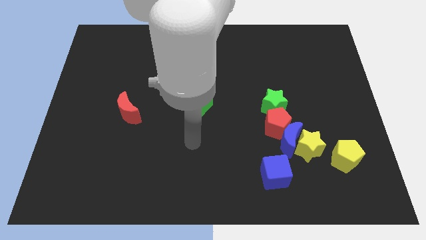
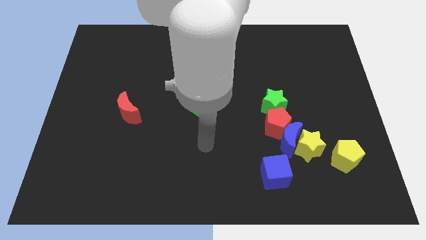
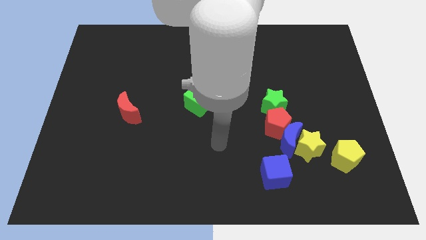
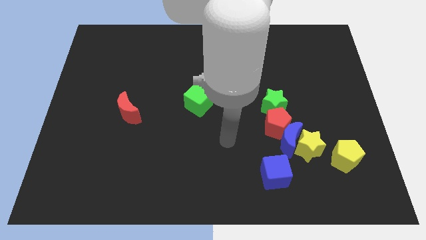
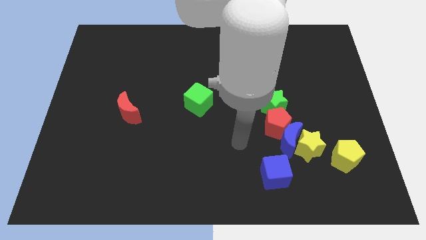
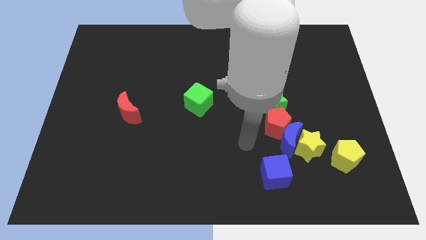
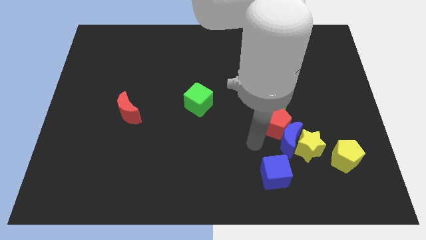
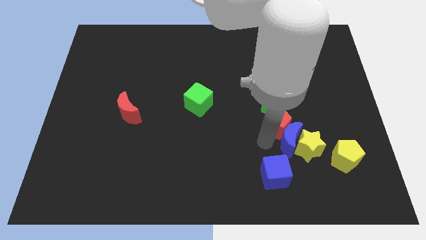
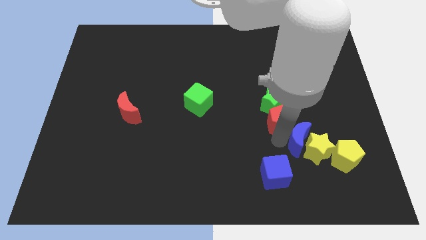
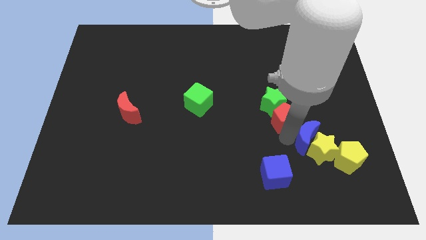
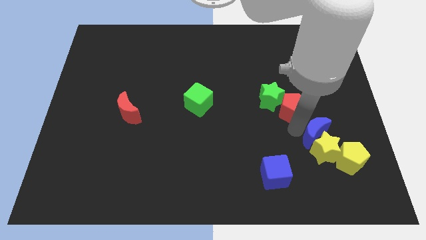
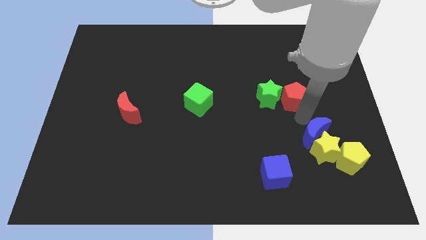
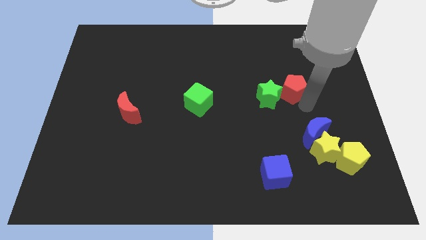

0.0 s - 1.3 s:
separate the red pentagon from the blue moon, green star, and yellow star

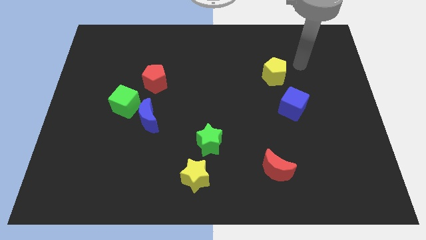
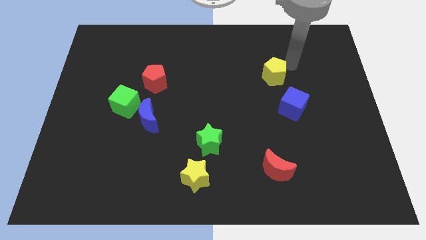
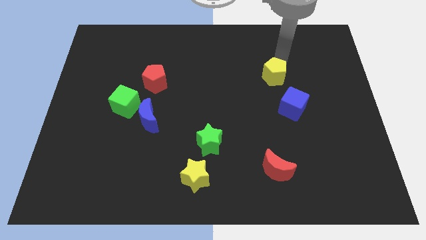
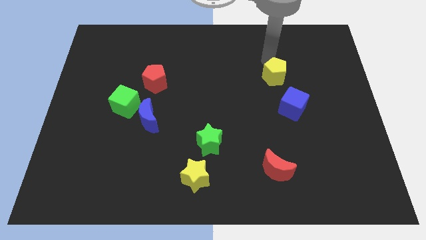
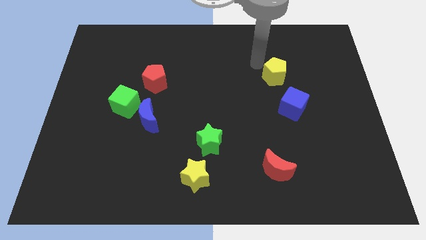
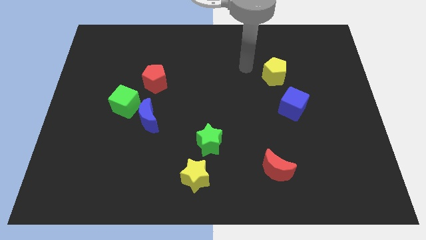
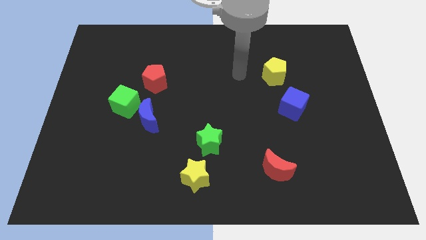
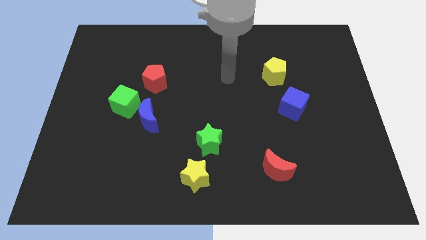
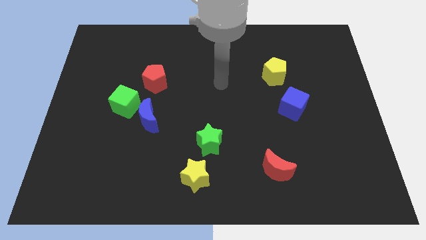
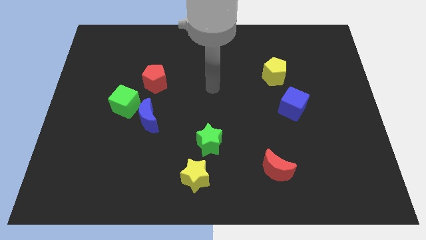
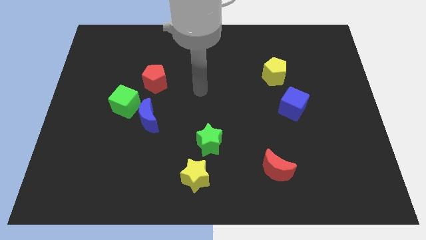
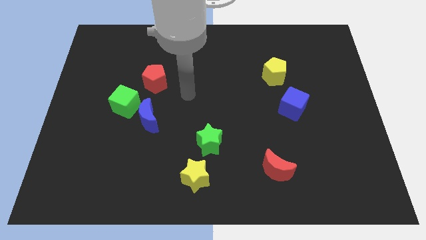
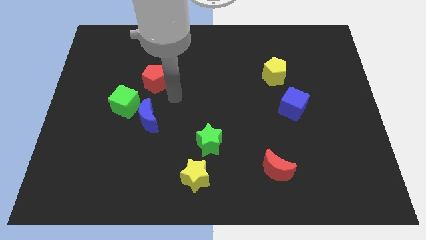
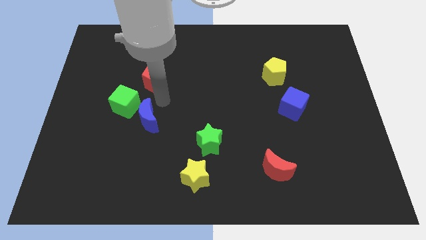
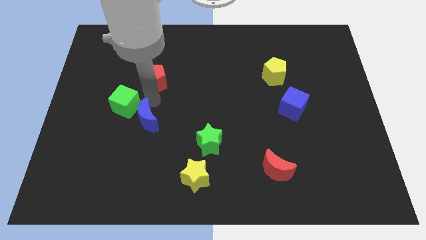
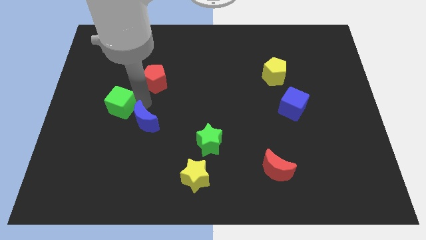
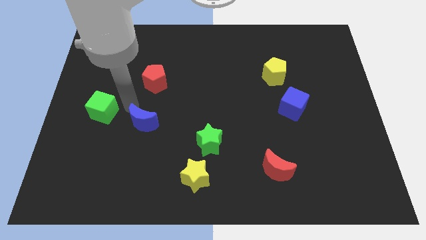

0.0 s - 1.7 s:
separate the blue moon from the green cube

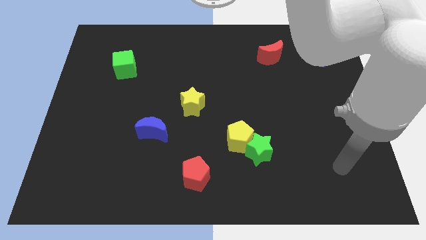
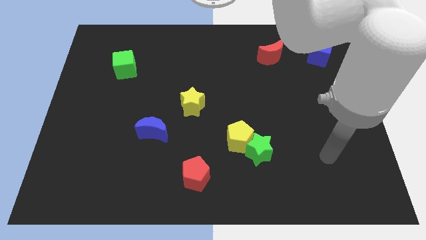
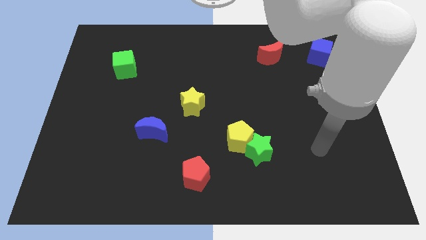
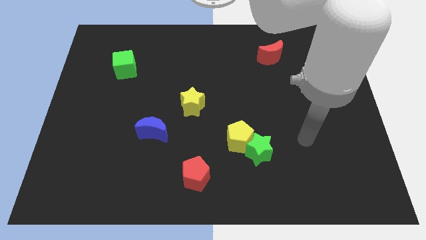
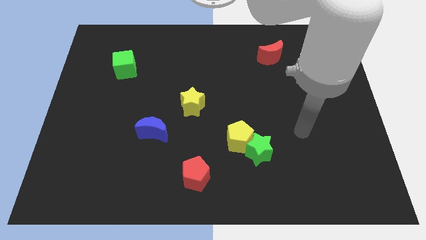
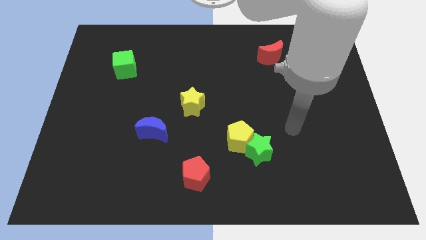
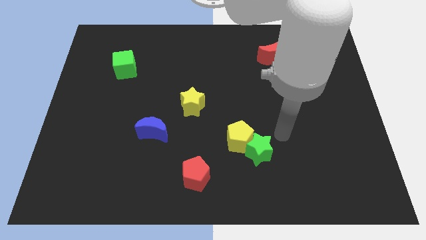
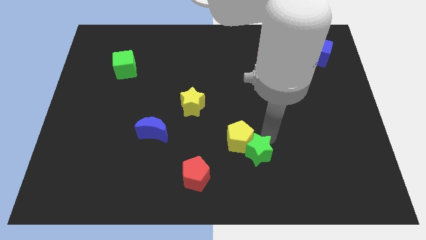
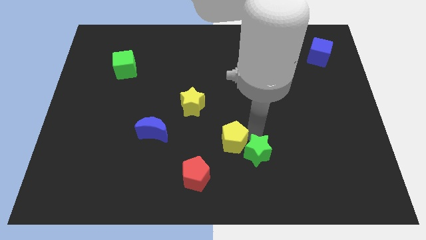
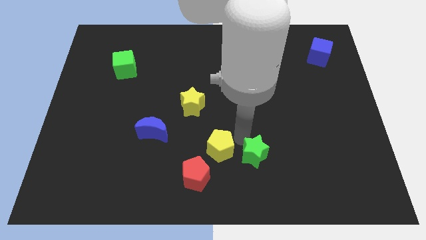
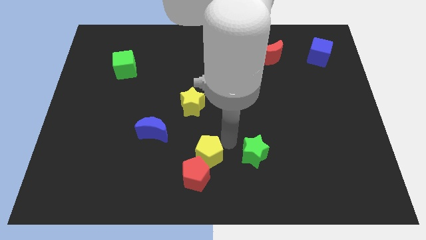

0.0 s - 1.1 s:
separate the green star from the yellow pentagon

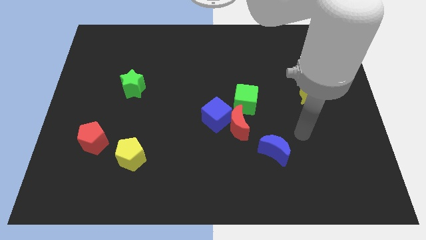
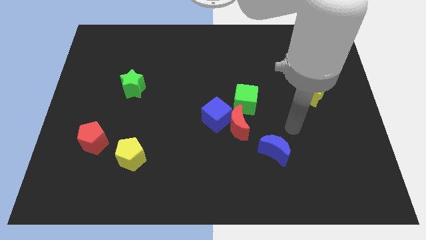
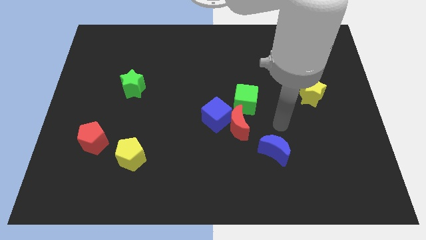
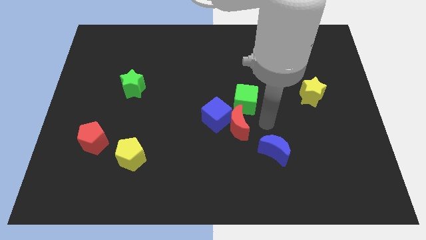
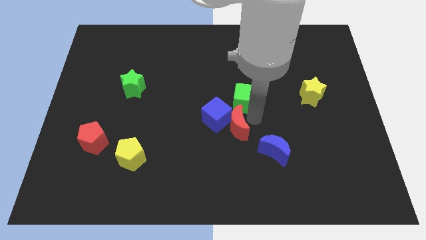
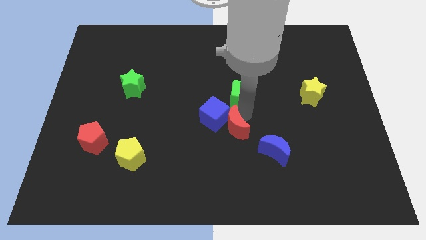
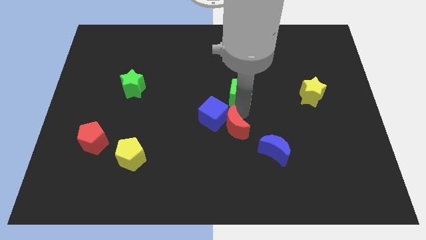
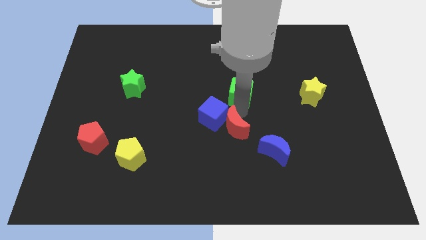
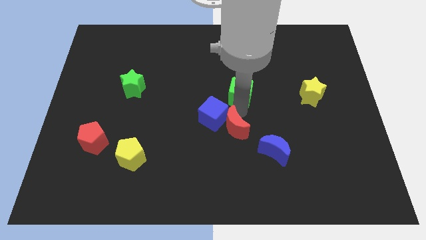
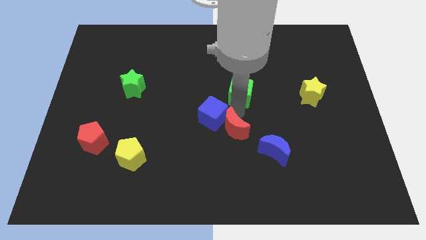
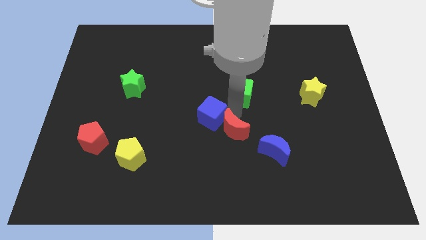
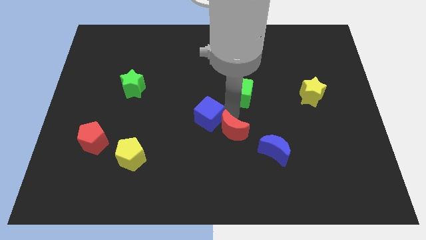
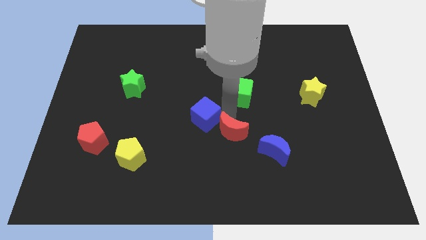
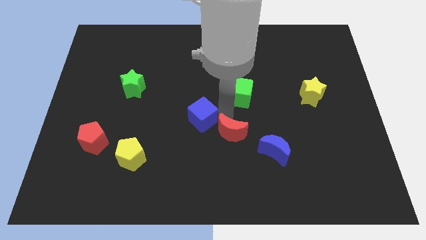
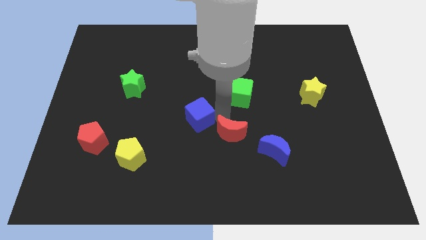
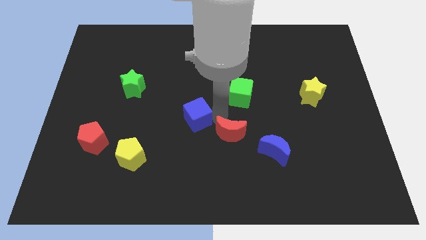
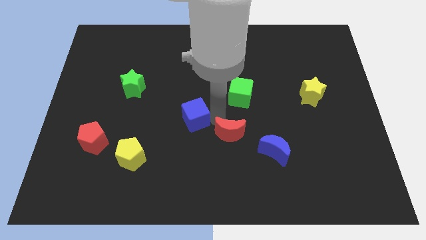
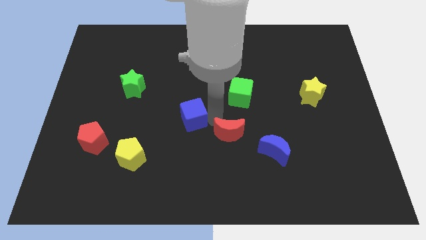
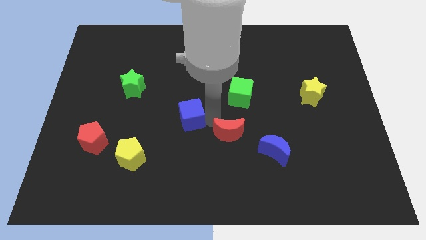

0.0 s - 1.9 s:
move the blue cube away from the red moon and green cube

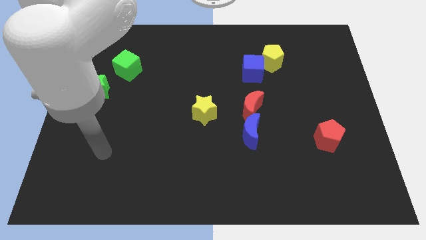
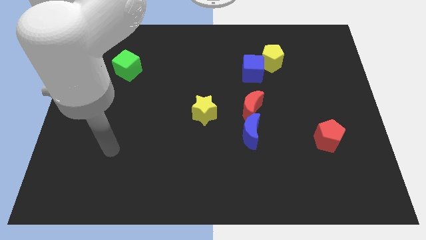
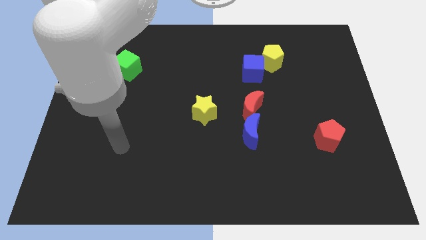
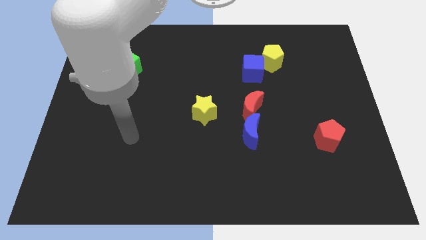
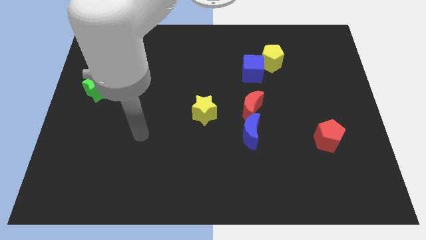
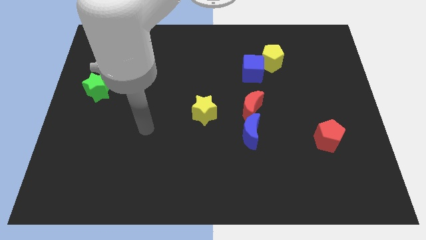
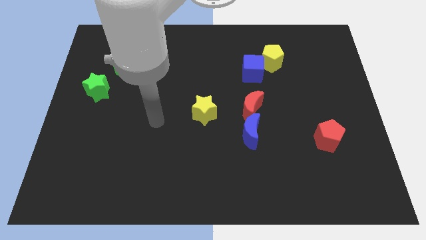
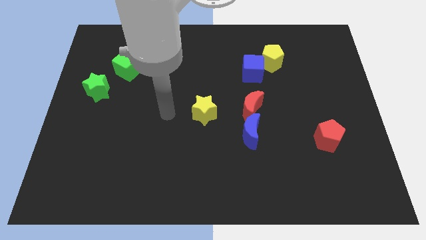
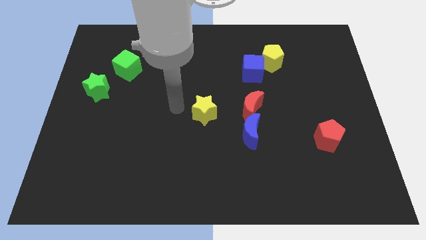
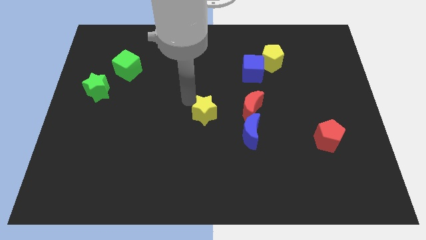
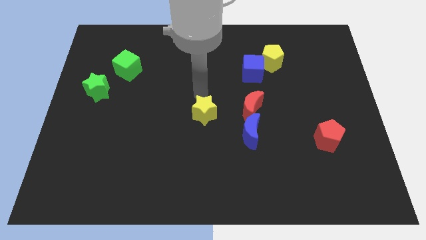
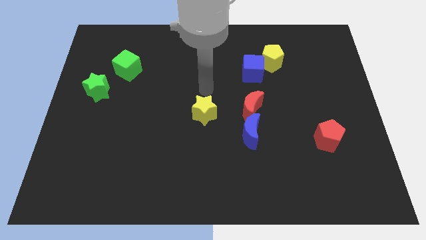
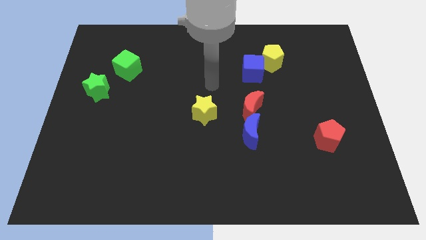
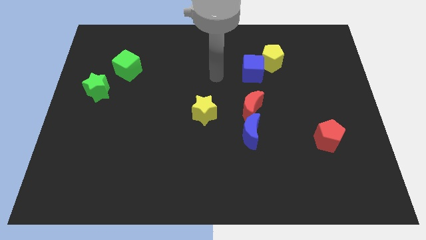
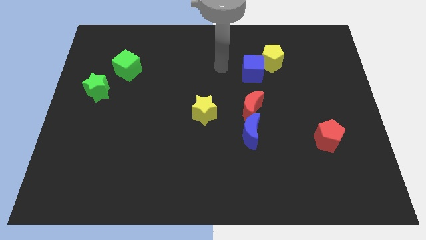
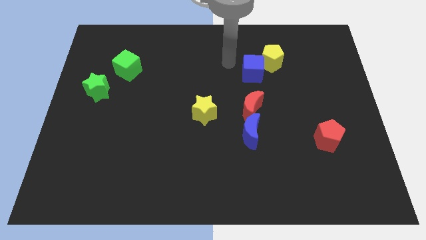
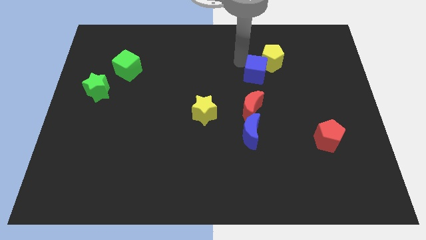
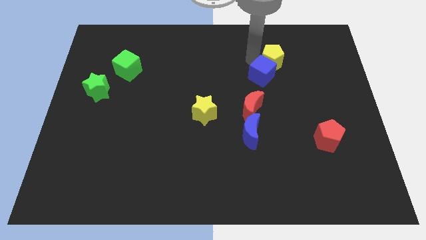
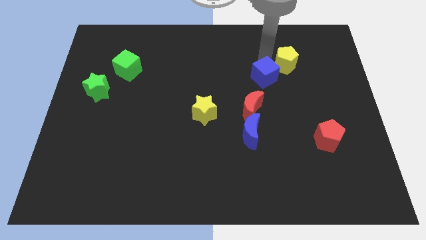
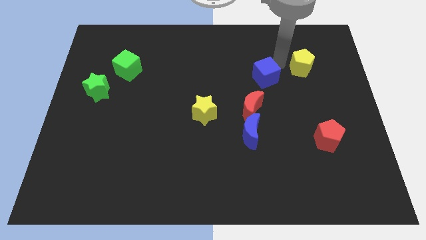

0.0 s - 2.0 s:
move the blue cube away from the yellow pentagon

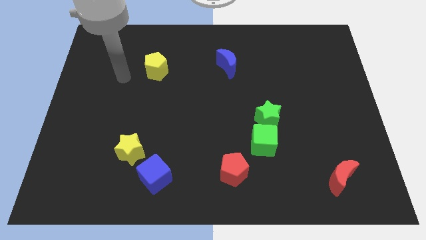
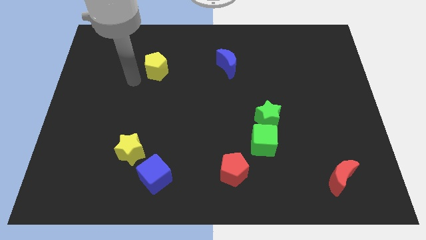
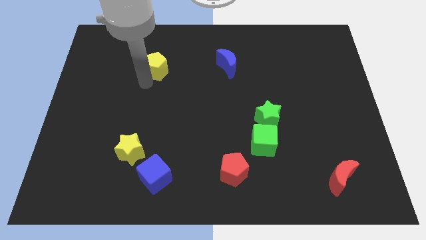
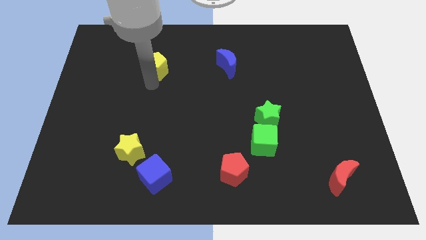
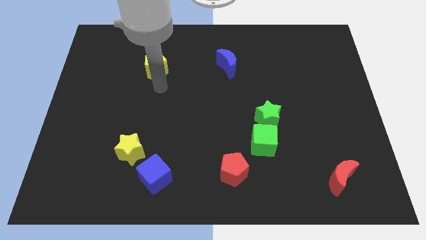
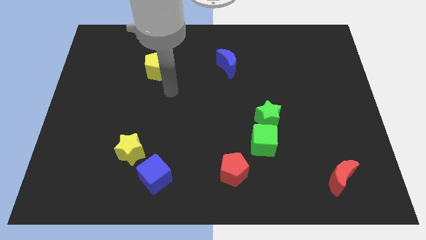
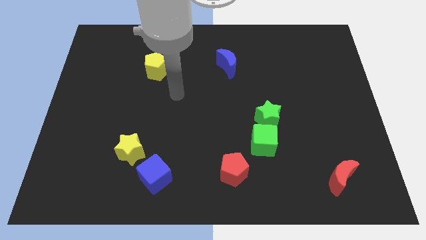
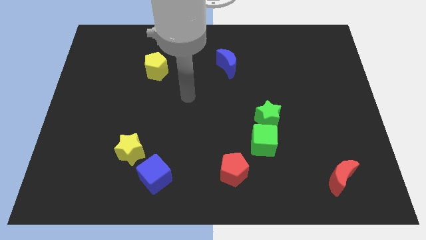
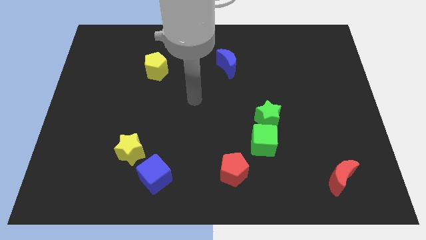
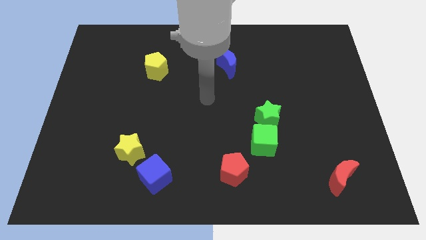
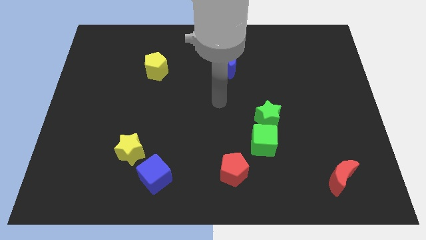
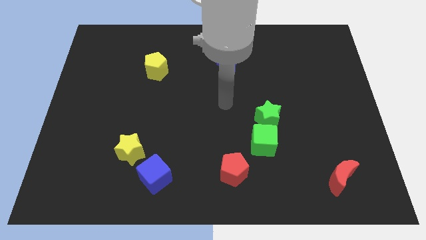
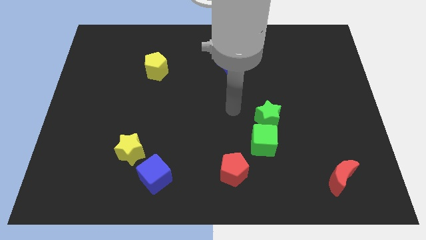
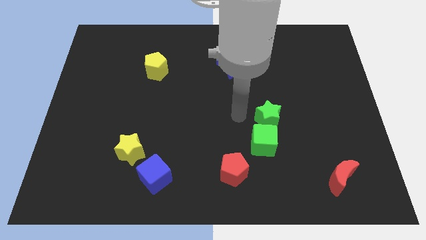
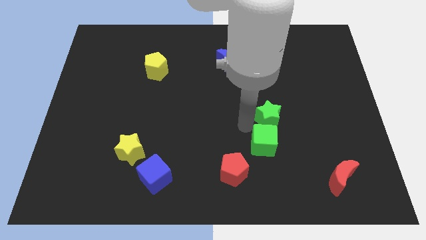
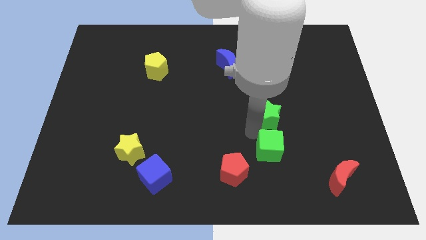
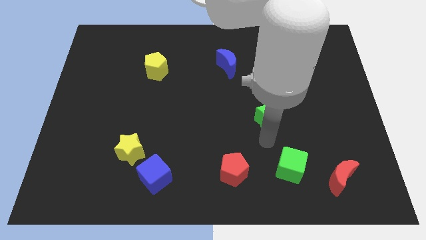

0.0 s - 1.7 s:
pull the green star apart from the green cube
